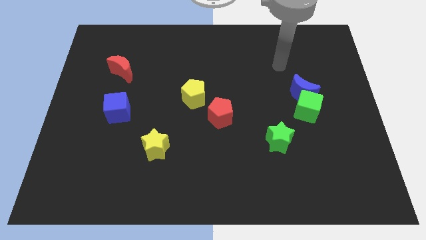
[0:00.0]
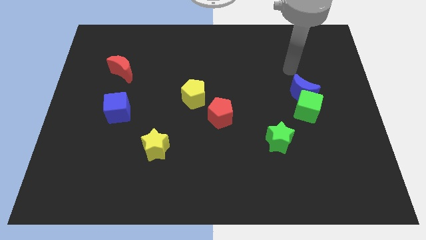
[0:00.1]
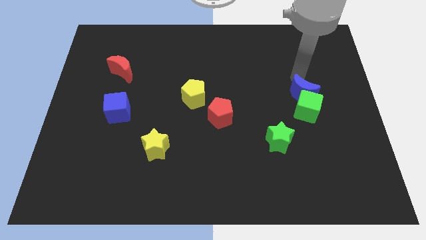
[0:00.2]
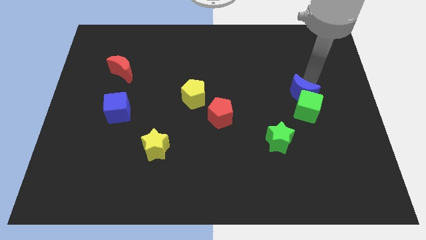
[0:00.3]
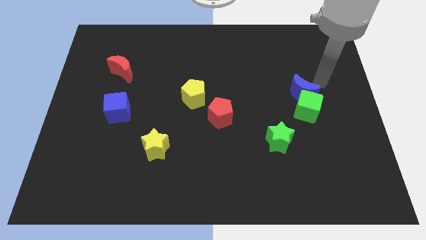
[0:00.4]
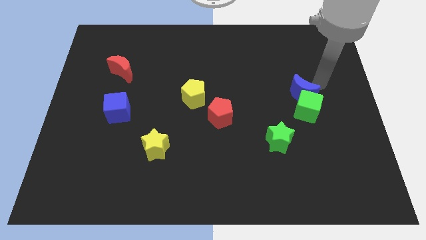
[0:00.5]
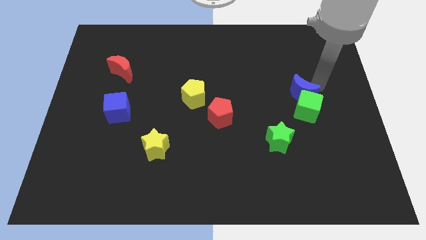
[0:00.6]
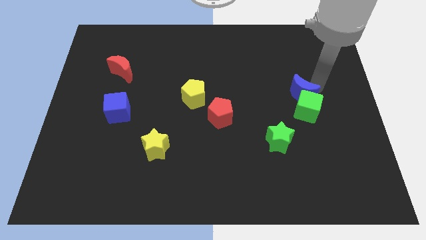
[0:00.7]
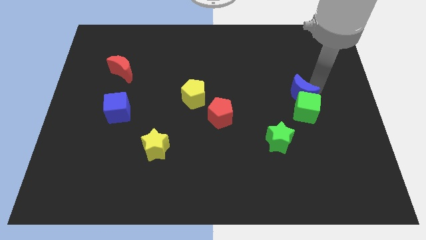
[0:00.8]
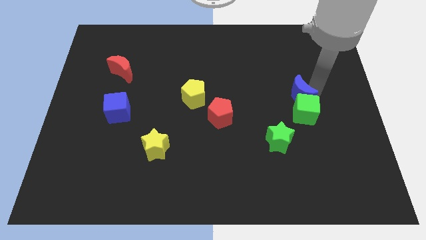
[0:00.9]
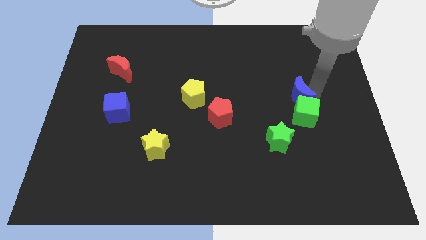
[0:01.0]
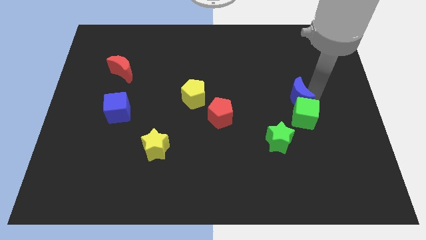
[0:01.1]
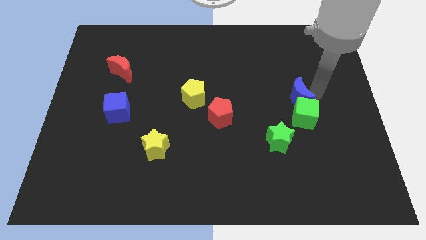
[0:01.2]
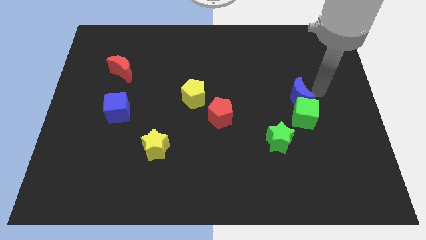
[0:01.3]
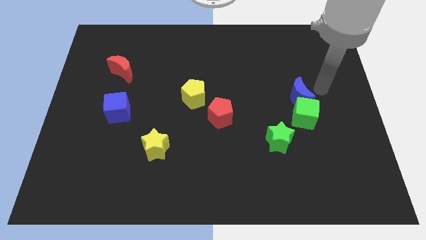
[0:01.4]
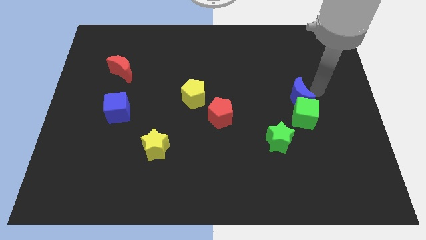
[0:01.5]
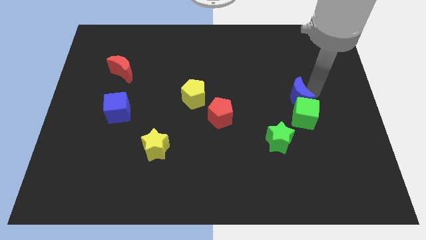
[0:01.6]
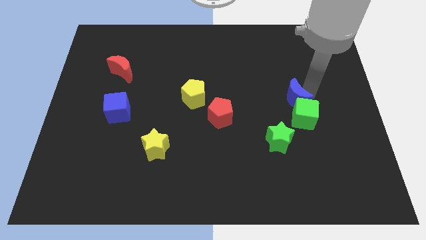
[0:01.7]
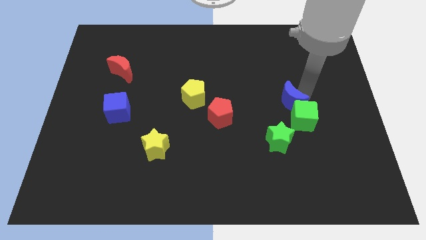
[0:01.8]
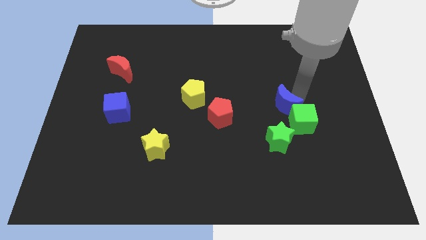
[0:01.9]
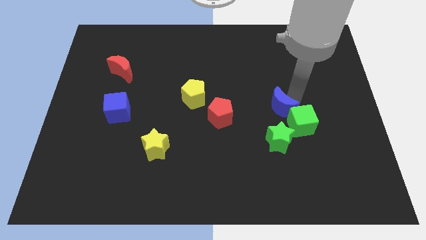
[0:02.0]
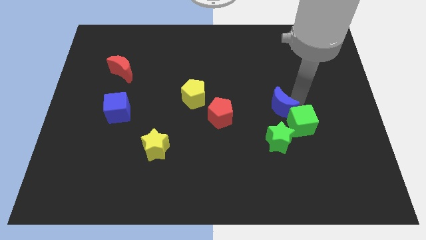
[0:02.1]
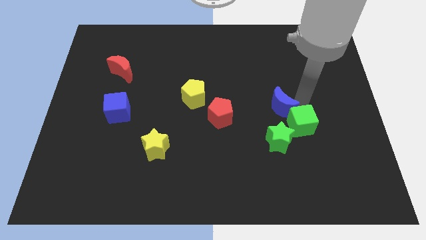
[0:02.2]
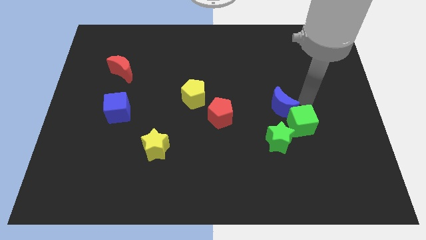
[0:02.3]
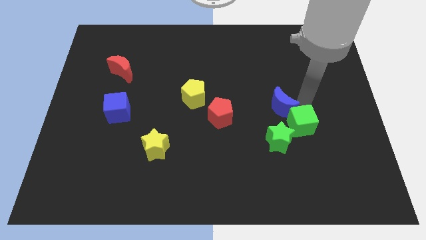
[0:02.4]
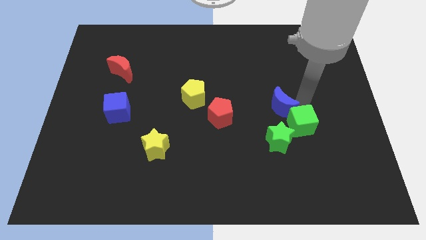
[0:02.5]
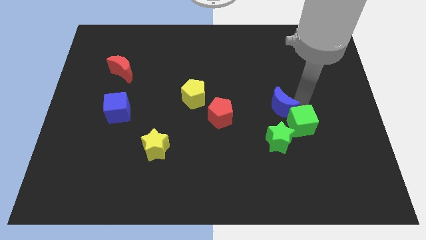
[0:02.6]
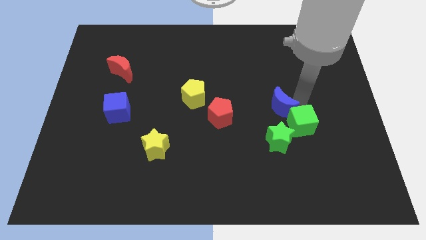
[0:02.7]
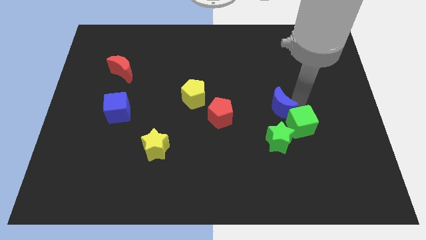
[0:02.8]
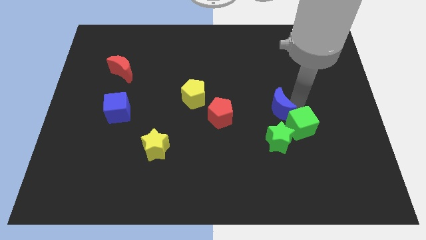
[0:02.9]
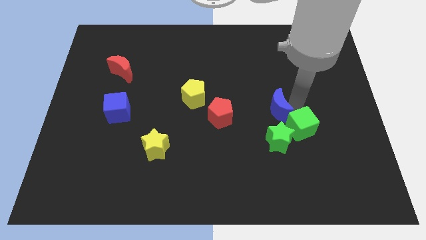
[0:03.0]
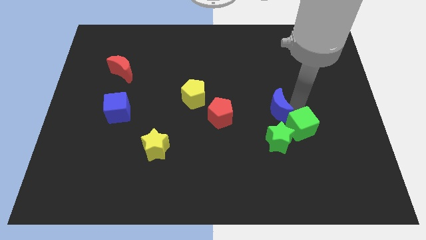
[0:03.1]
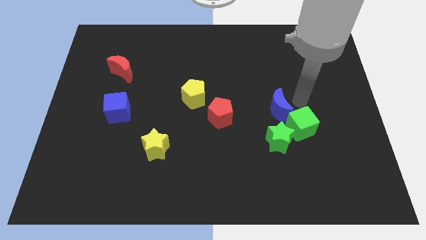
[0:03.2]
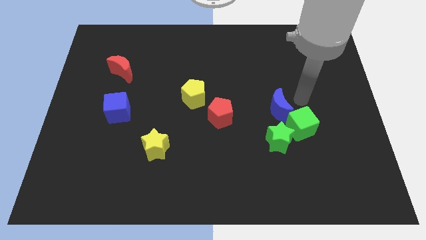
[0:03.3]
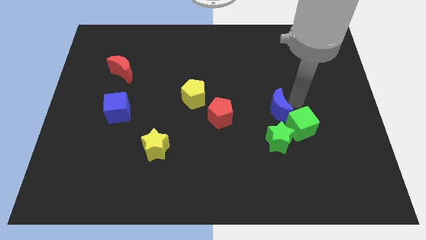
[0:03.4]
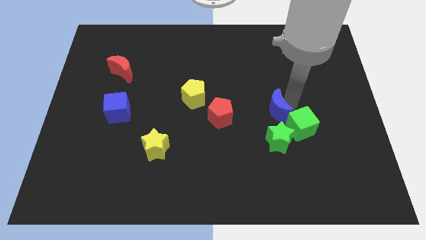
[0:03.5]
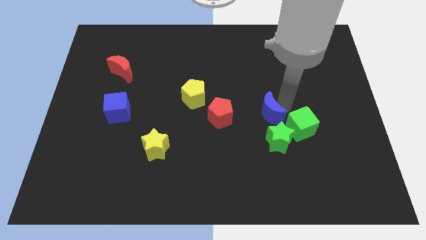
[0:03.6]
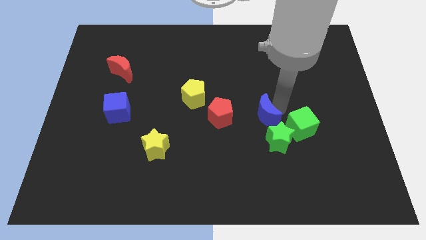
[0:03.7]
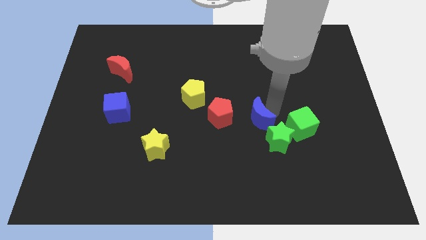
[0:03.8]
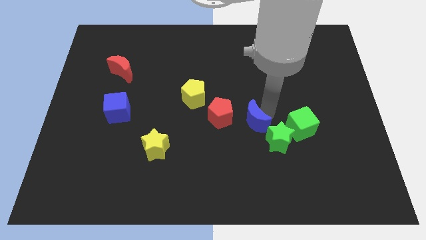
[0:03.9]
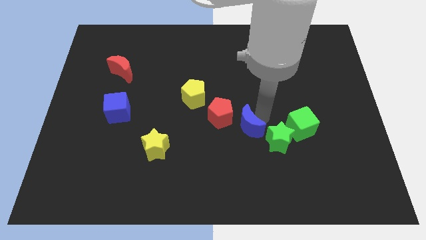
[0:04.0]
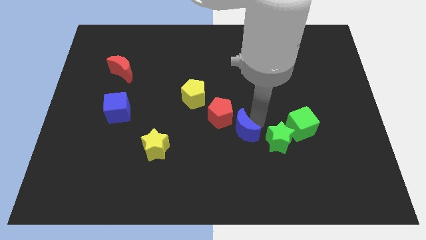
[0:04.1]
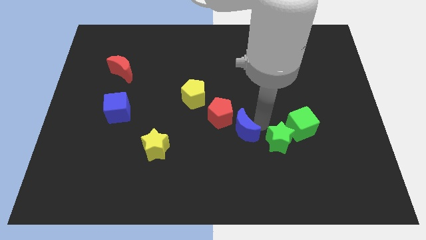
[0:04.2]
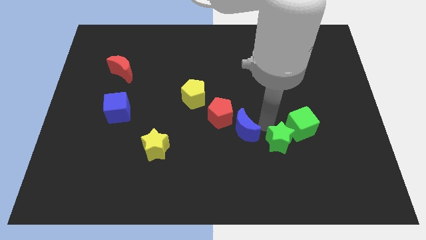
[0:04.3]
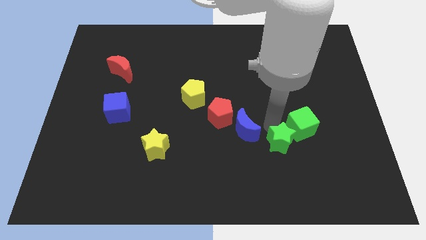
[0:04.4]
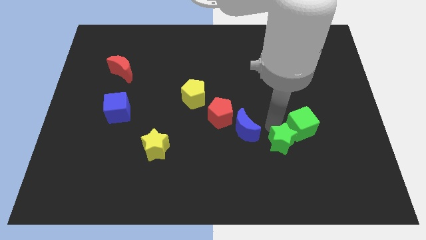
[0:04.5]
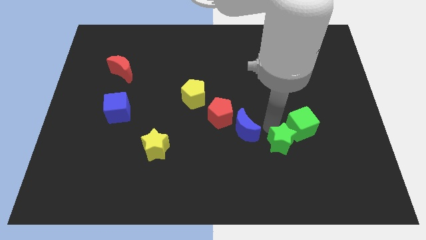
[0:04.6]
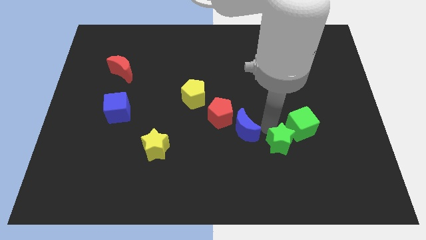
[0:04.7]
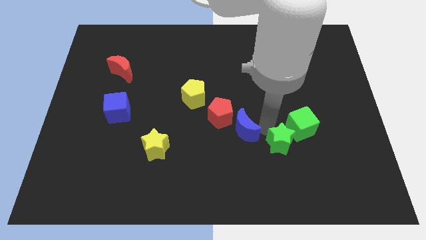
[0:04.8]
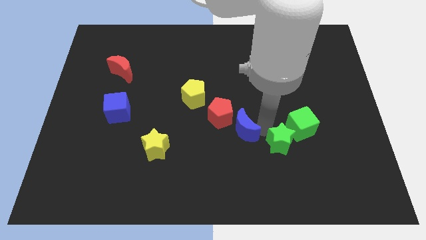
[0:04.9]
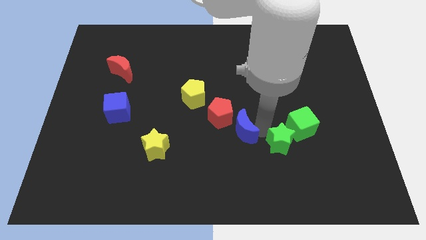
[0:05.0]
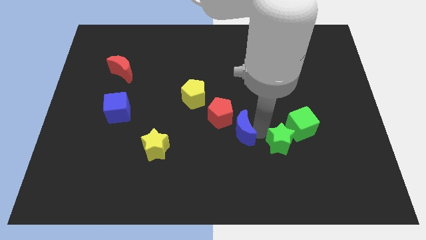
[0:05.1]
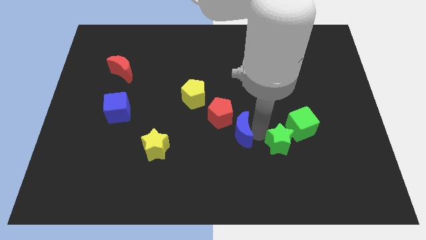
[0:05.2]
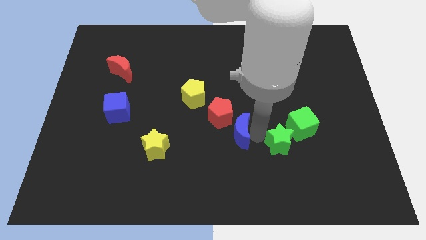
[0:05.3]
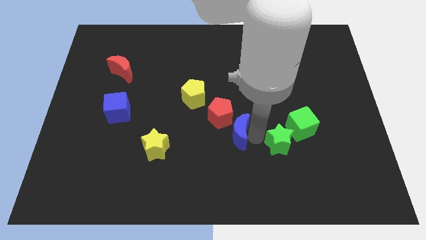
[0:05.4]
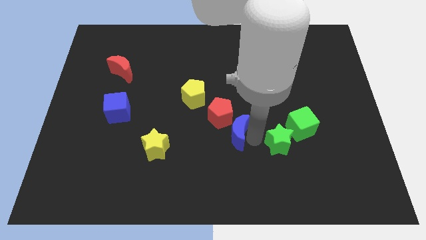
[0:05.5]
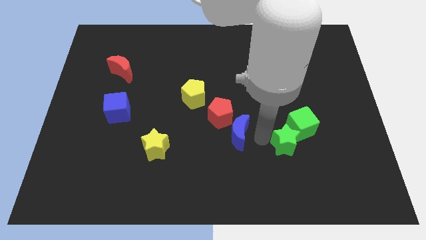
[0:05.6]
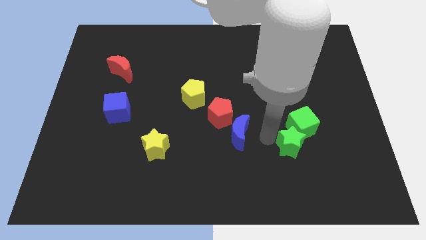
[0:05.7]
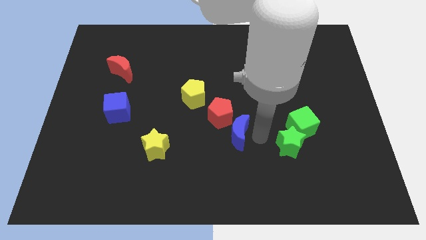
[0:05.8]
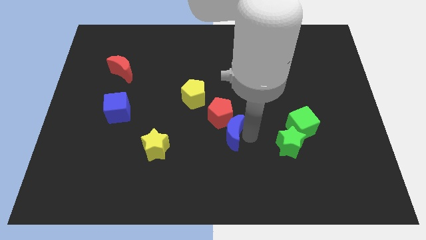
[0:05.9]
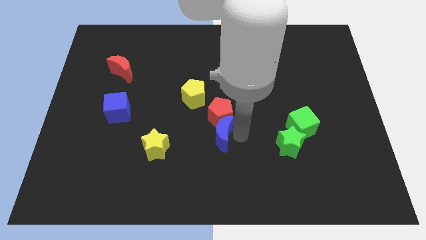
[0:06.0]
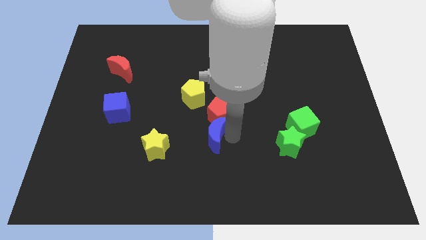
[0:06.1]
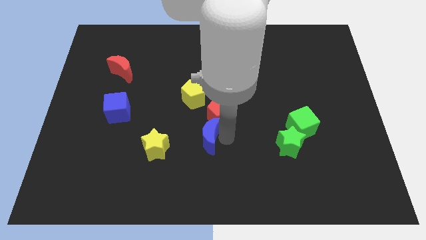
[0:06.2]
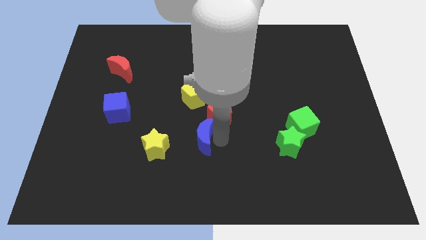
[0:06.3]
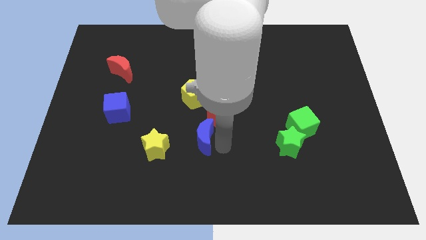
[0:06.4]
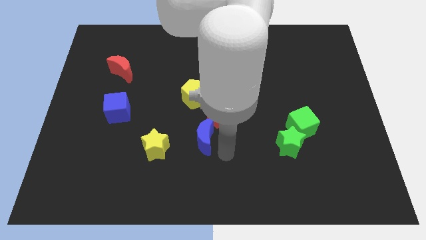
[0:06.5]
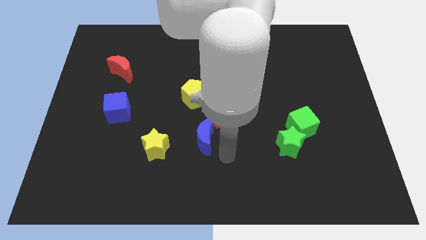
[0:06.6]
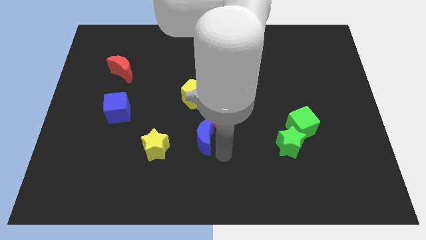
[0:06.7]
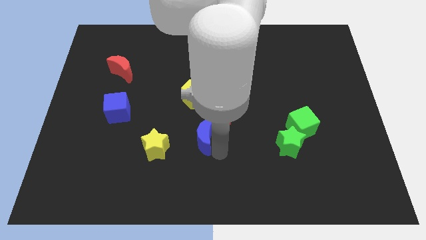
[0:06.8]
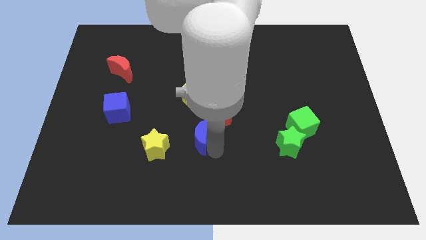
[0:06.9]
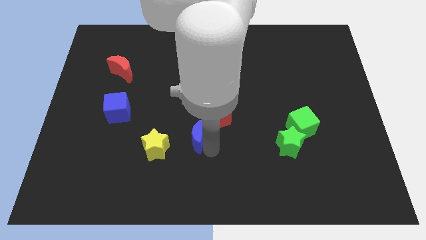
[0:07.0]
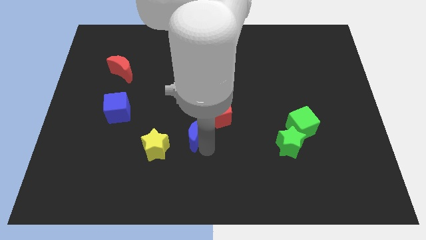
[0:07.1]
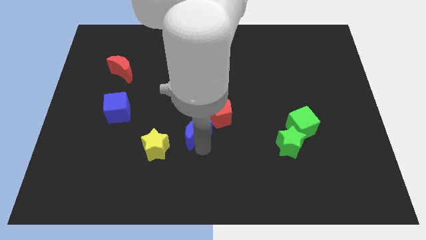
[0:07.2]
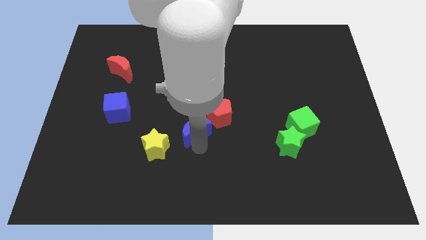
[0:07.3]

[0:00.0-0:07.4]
slide the blue moon left of the red pentagon

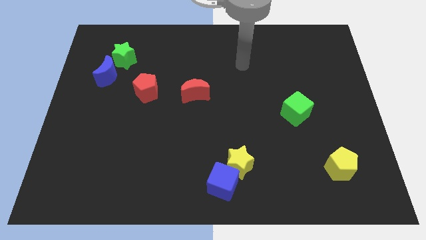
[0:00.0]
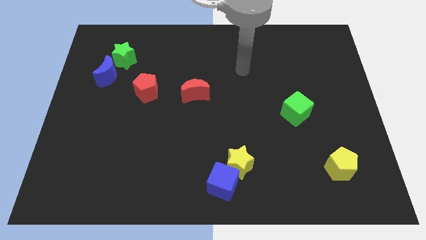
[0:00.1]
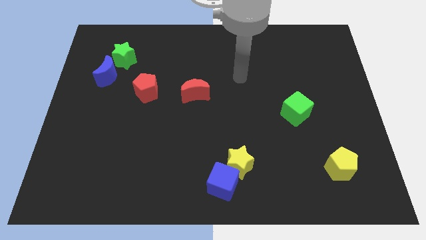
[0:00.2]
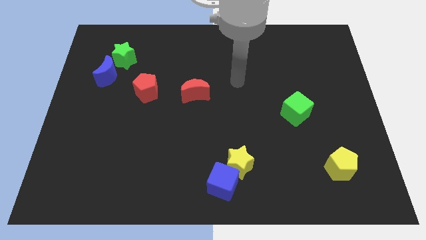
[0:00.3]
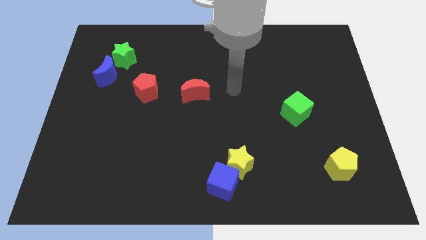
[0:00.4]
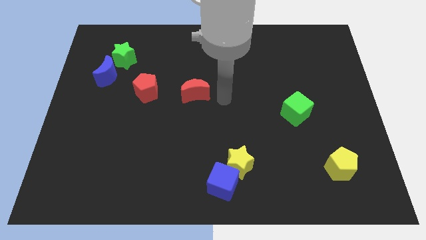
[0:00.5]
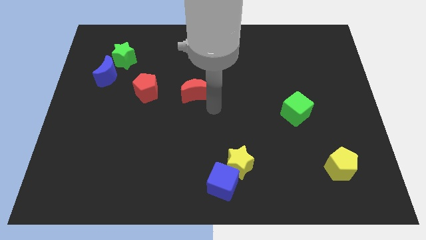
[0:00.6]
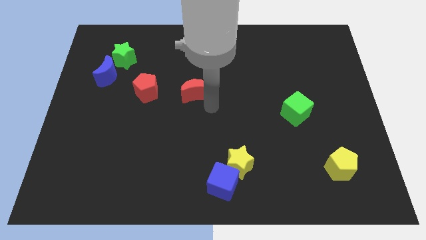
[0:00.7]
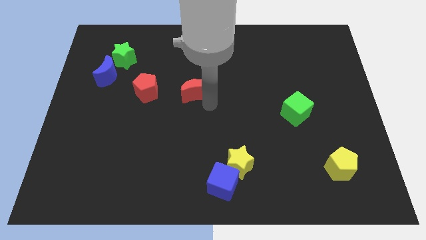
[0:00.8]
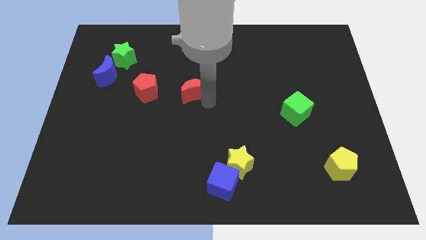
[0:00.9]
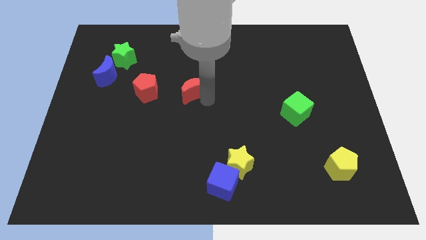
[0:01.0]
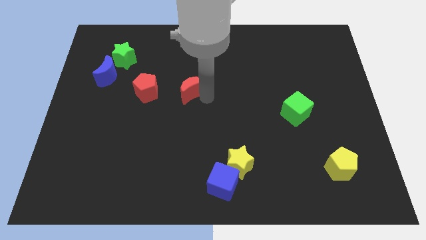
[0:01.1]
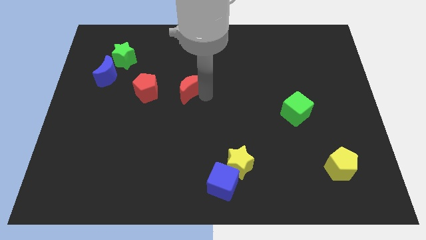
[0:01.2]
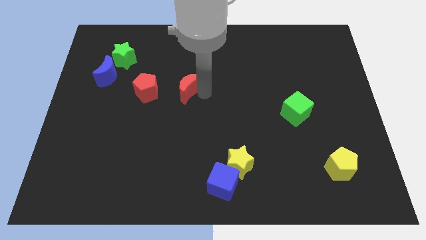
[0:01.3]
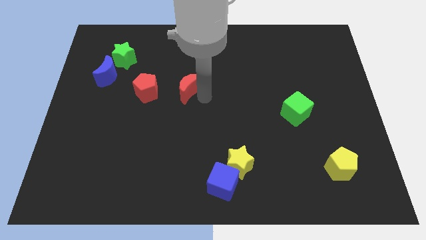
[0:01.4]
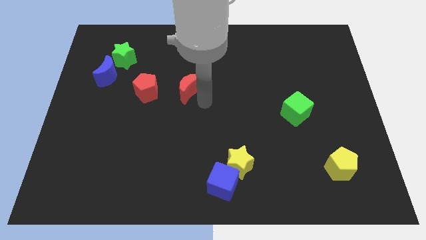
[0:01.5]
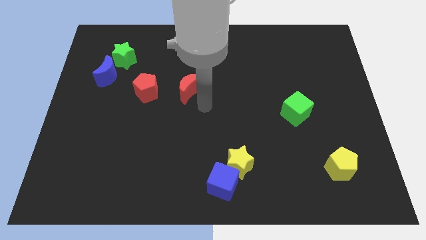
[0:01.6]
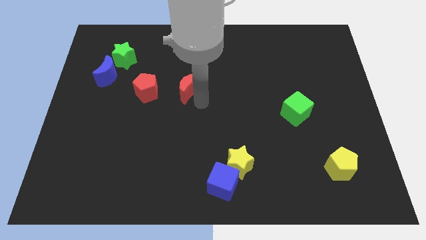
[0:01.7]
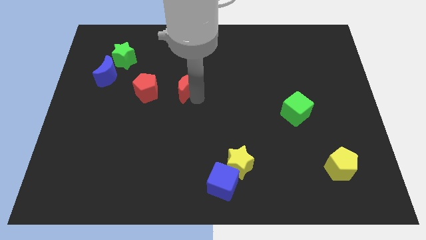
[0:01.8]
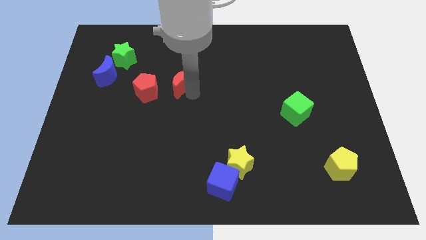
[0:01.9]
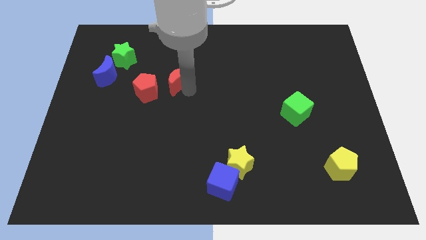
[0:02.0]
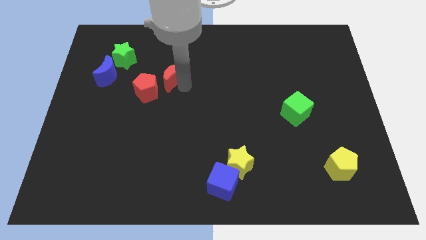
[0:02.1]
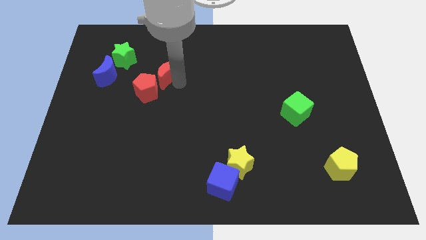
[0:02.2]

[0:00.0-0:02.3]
put the red moon to the top of the red pentagon
